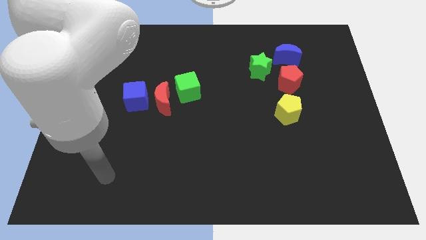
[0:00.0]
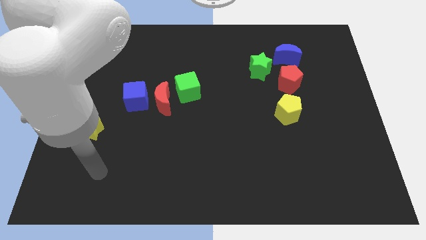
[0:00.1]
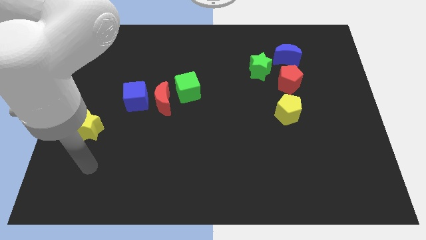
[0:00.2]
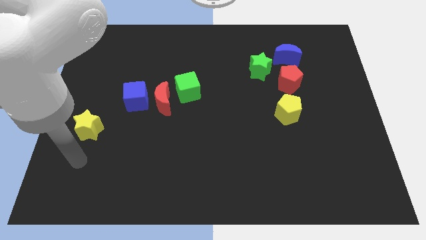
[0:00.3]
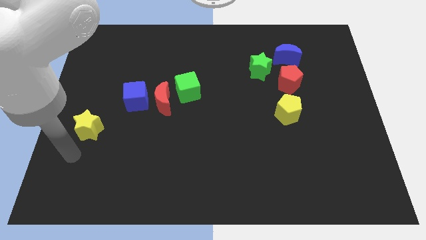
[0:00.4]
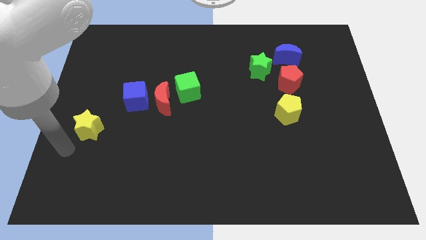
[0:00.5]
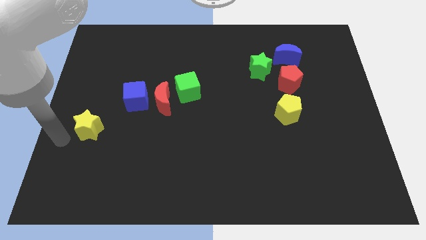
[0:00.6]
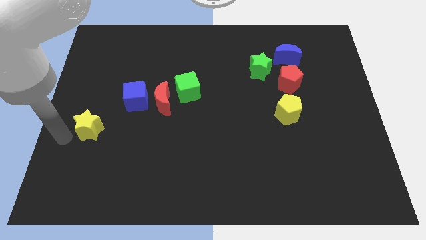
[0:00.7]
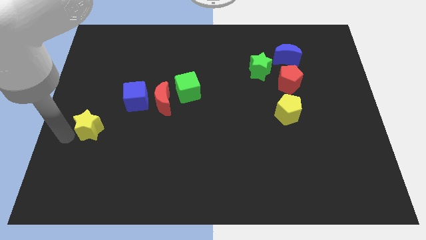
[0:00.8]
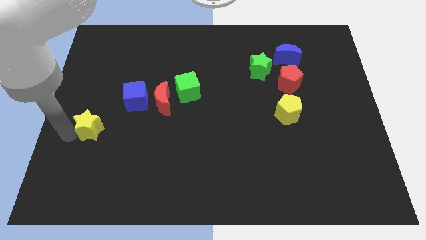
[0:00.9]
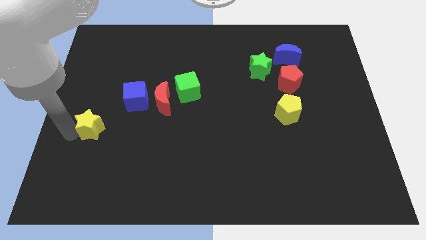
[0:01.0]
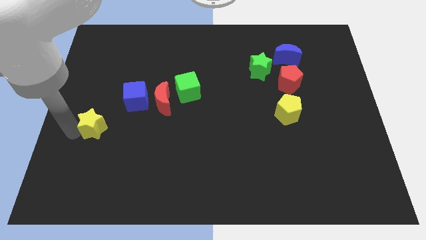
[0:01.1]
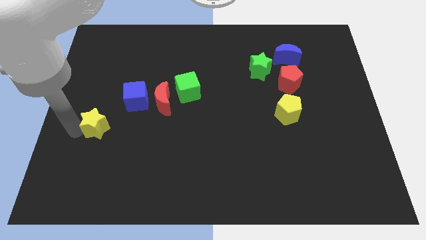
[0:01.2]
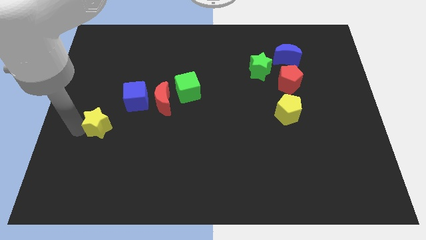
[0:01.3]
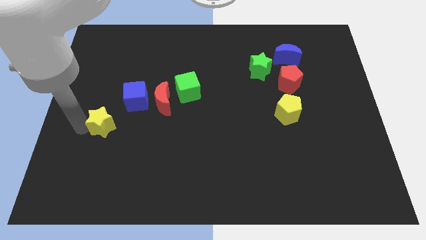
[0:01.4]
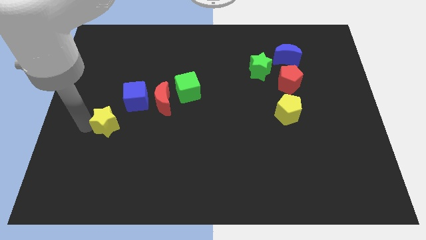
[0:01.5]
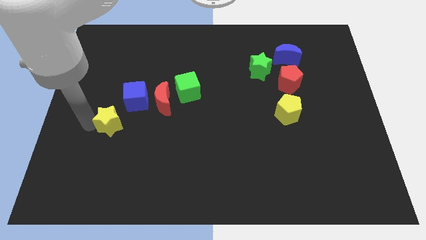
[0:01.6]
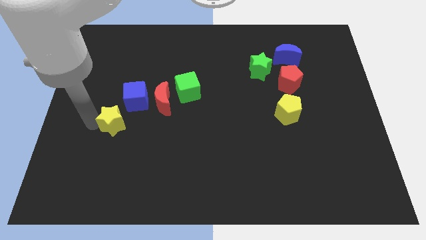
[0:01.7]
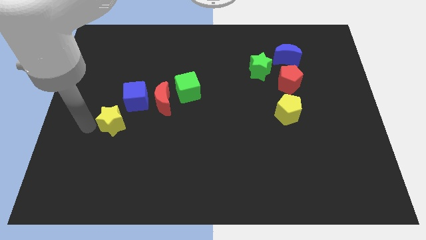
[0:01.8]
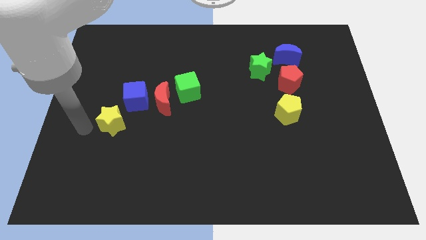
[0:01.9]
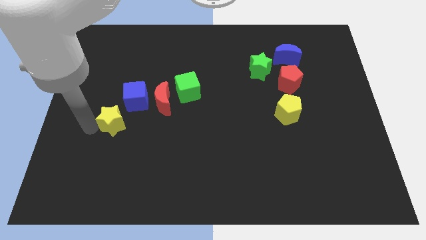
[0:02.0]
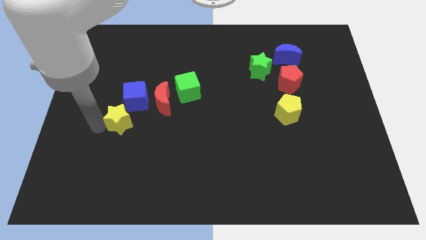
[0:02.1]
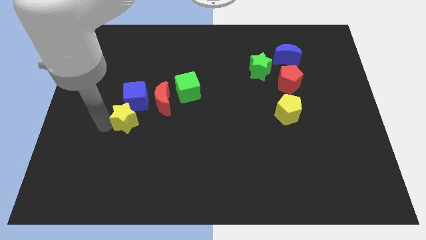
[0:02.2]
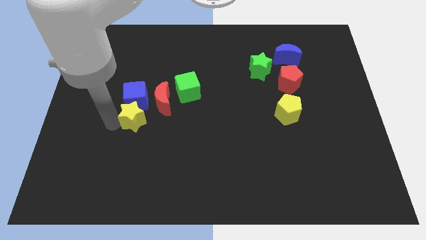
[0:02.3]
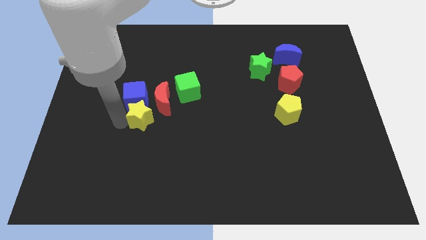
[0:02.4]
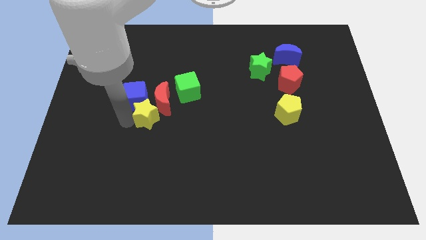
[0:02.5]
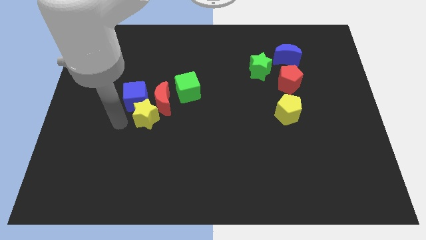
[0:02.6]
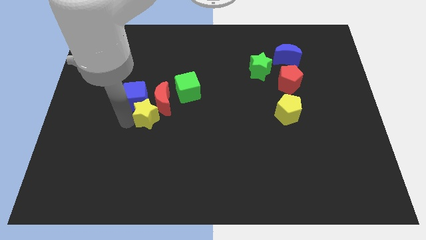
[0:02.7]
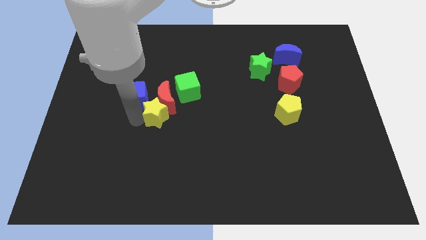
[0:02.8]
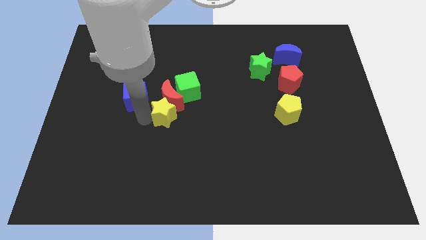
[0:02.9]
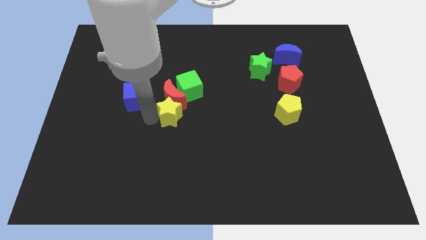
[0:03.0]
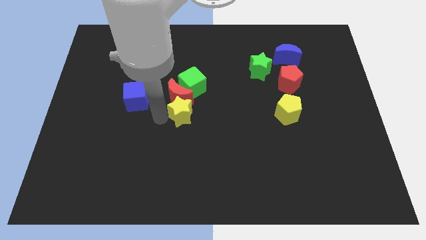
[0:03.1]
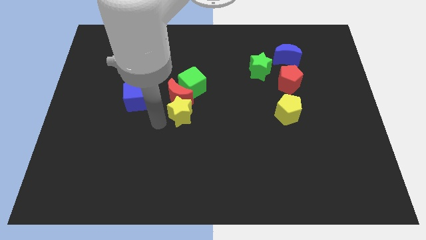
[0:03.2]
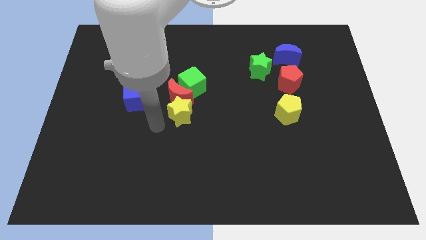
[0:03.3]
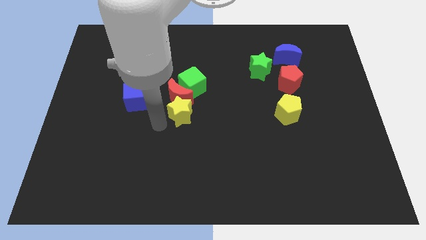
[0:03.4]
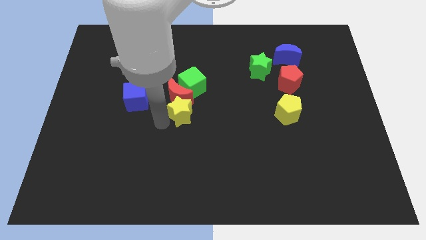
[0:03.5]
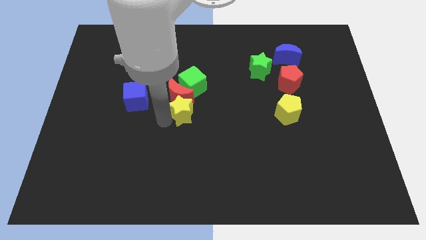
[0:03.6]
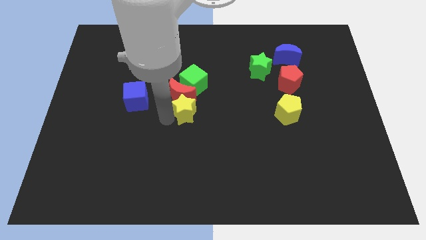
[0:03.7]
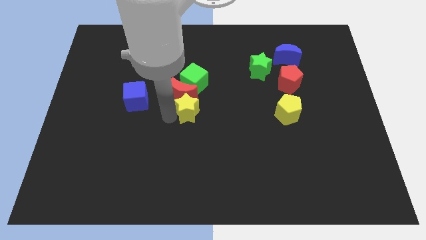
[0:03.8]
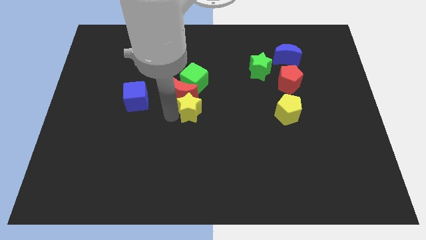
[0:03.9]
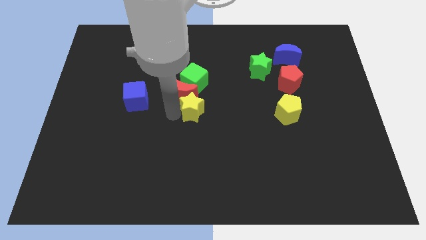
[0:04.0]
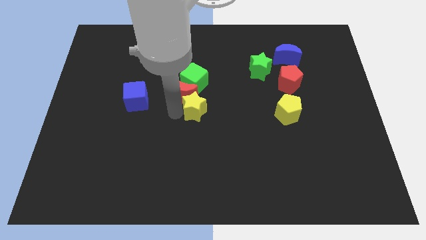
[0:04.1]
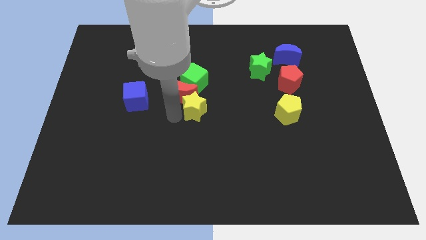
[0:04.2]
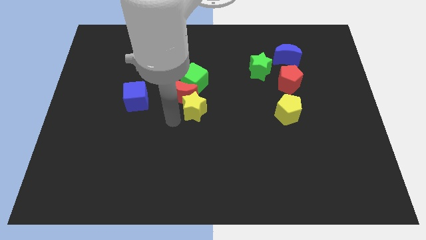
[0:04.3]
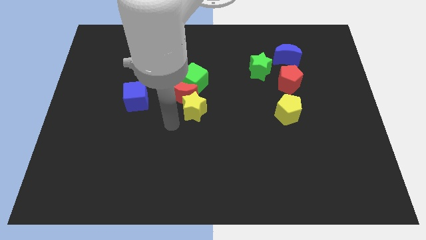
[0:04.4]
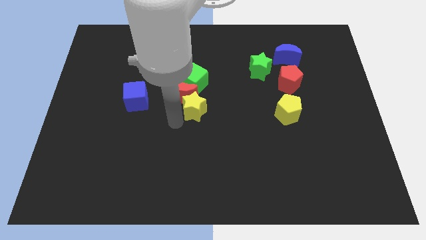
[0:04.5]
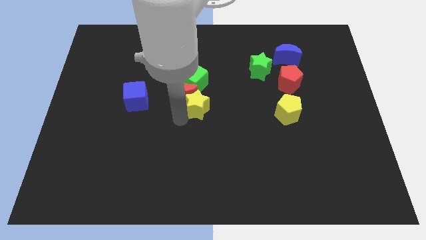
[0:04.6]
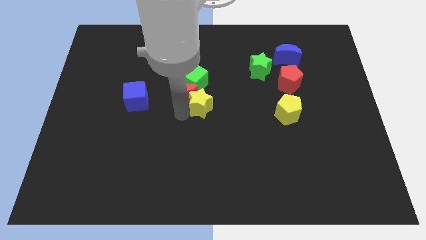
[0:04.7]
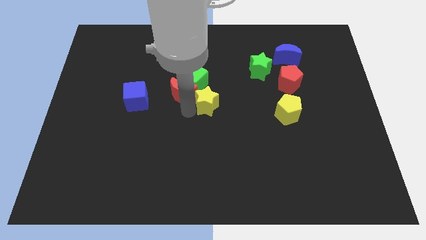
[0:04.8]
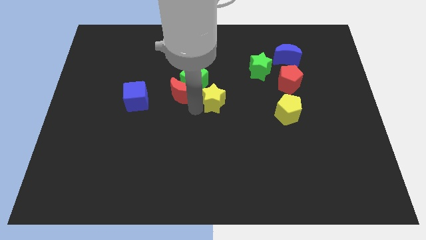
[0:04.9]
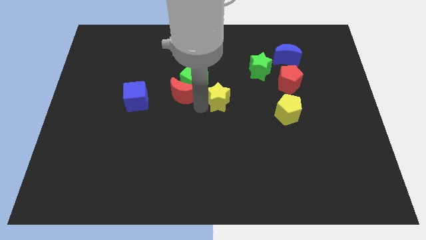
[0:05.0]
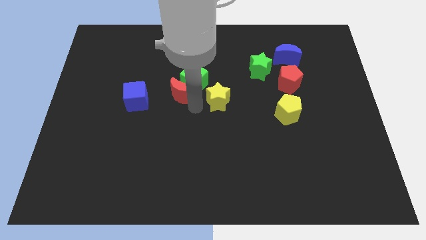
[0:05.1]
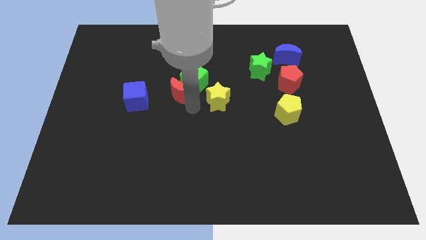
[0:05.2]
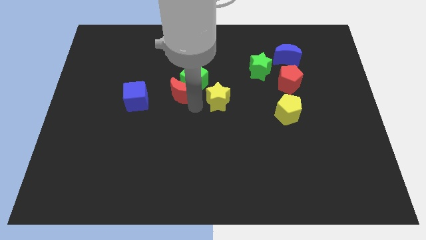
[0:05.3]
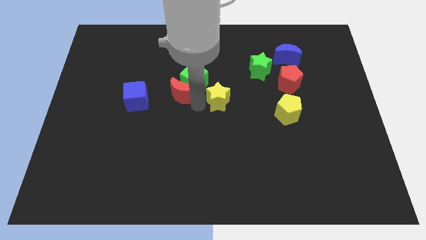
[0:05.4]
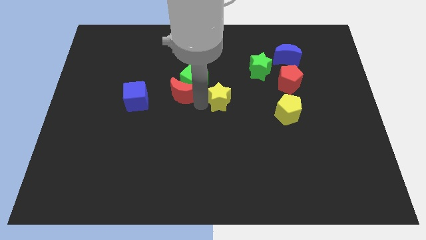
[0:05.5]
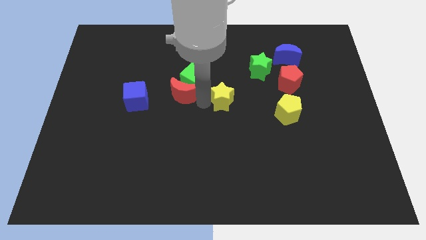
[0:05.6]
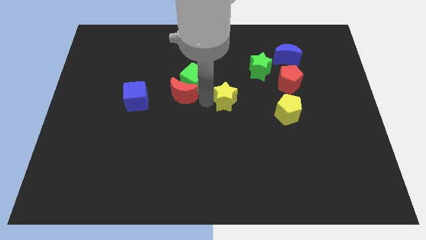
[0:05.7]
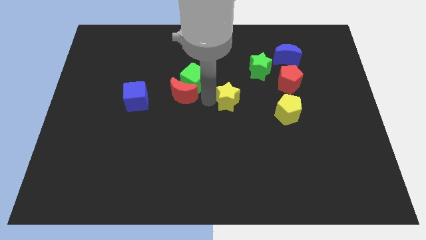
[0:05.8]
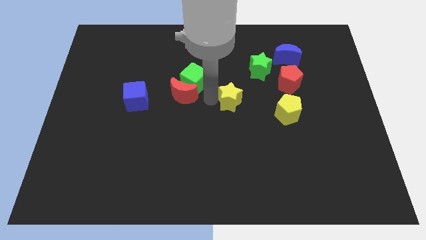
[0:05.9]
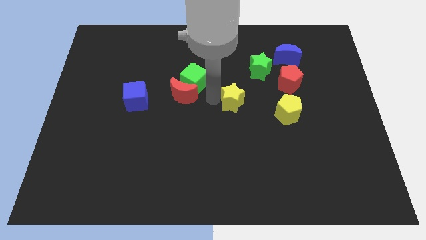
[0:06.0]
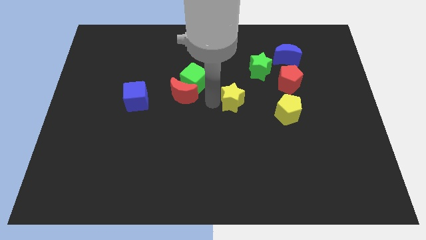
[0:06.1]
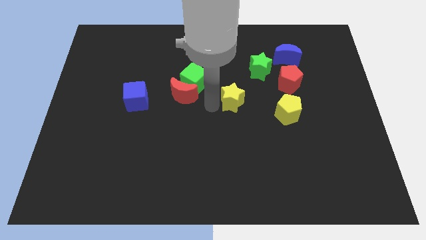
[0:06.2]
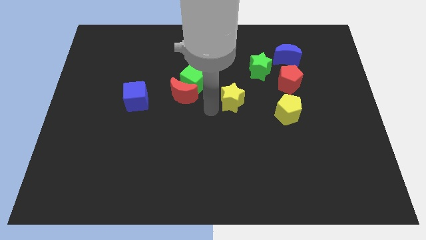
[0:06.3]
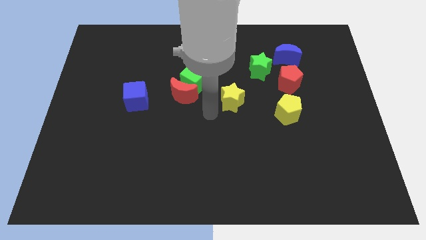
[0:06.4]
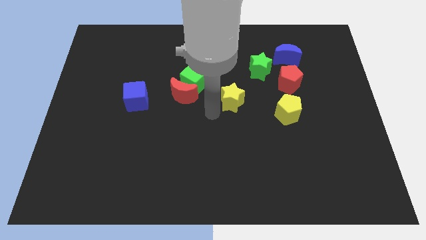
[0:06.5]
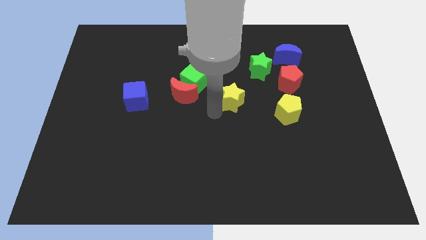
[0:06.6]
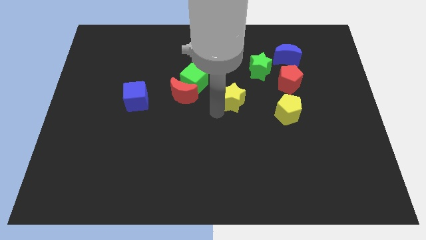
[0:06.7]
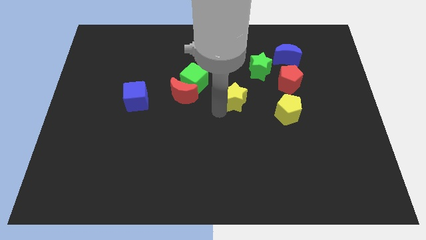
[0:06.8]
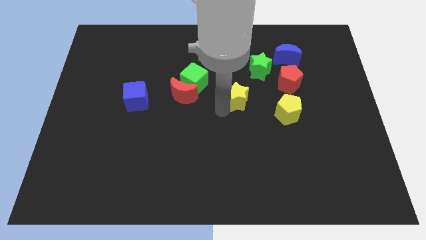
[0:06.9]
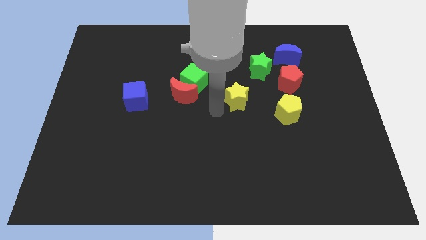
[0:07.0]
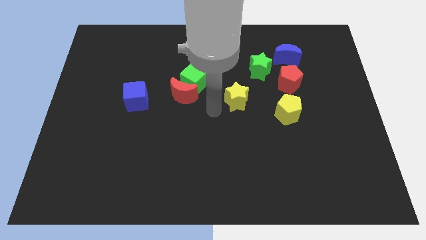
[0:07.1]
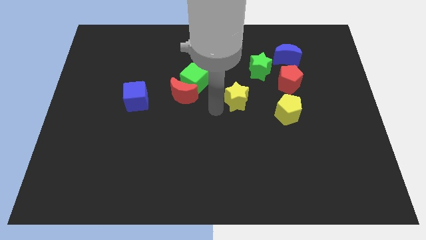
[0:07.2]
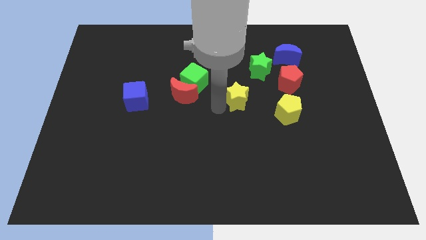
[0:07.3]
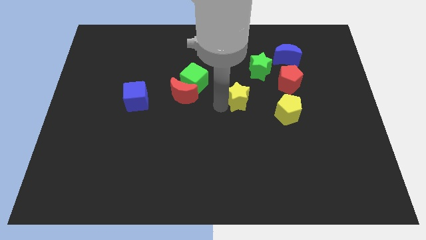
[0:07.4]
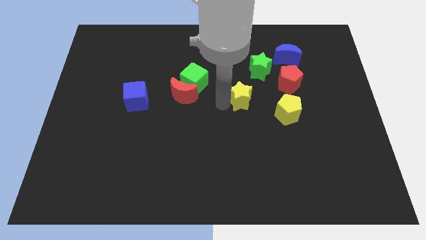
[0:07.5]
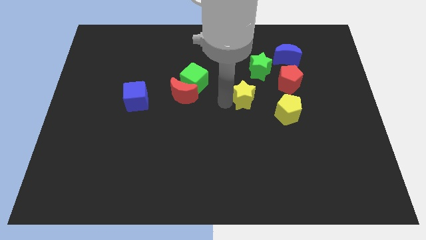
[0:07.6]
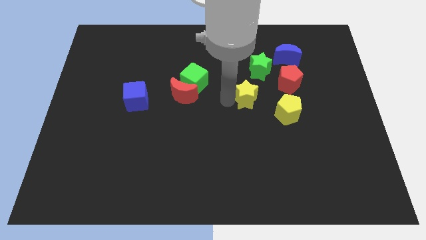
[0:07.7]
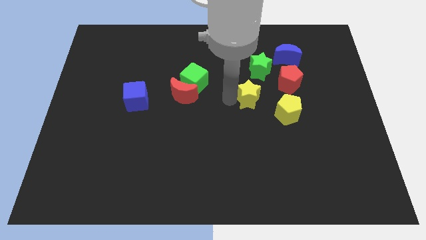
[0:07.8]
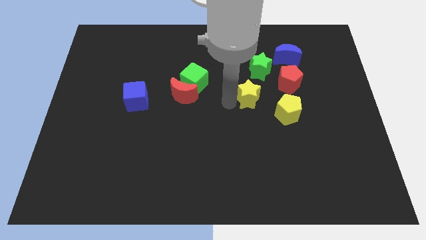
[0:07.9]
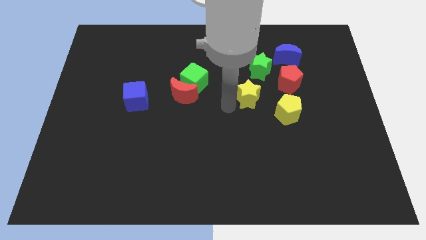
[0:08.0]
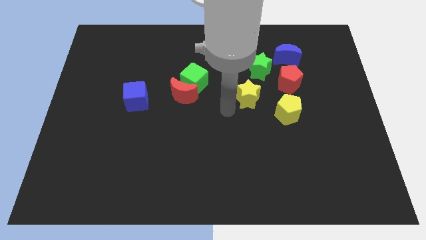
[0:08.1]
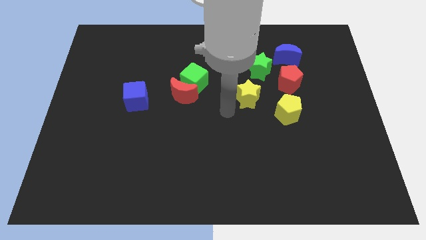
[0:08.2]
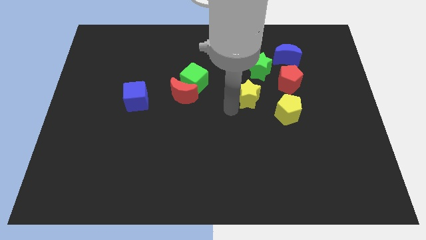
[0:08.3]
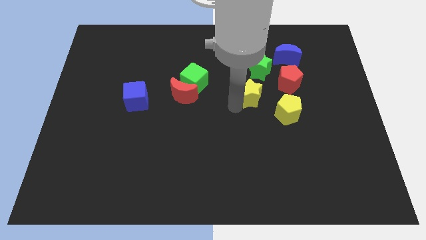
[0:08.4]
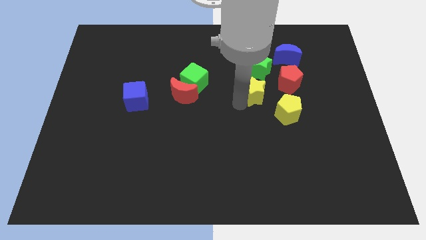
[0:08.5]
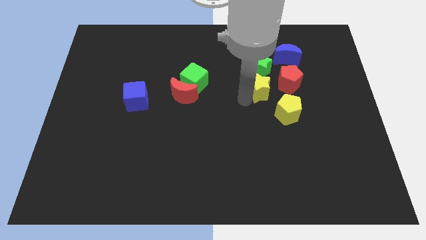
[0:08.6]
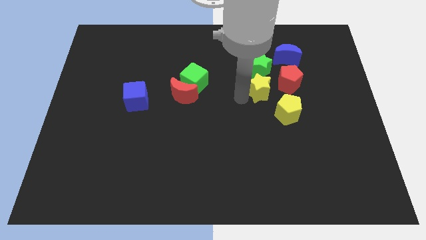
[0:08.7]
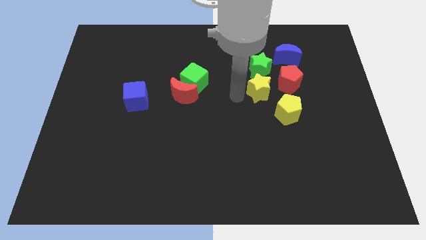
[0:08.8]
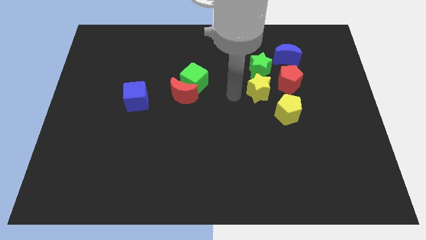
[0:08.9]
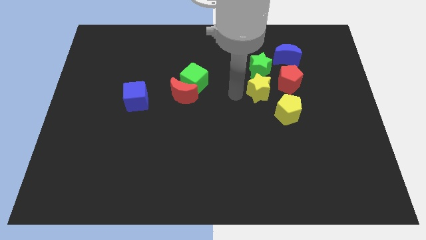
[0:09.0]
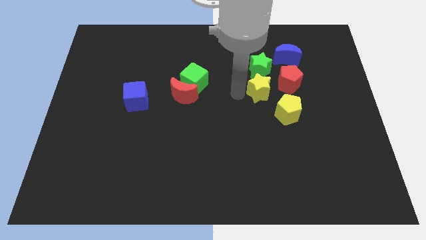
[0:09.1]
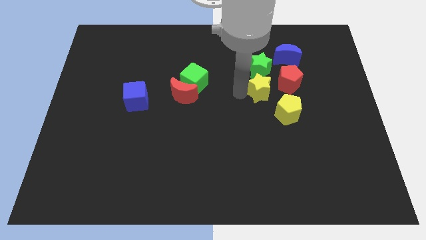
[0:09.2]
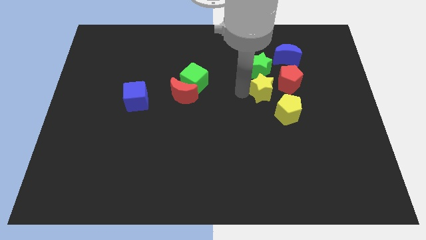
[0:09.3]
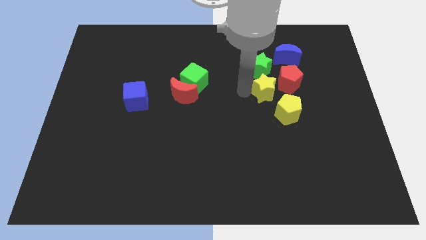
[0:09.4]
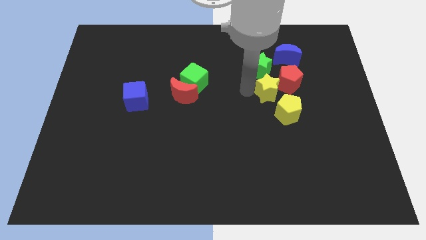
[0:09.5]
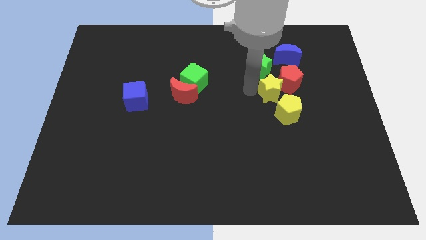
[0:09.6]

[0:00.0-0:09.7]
push the yellow star towards the red pentagon
